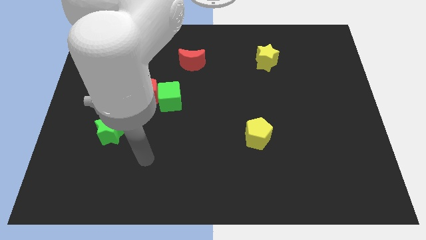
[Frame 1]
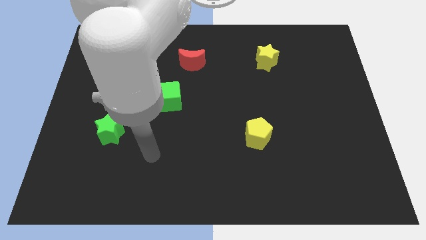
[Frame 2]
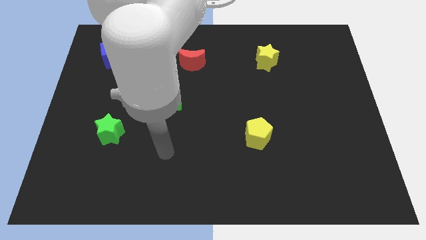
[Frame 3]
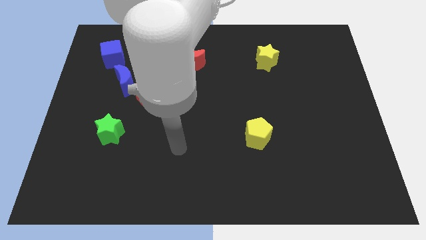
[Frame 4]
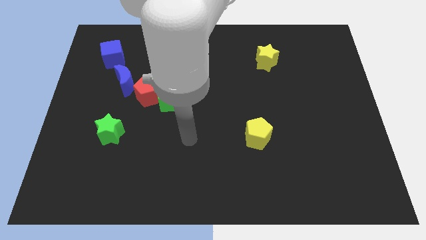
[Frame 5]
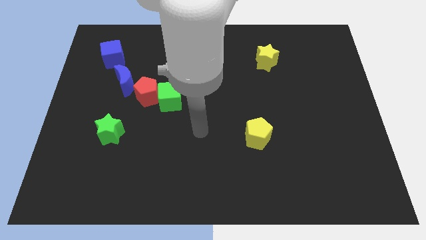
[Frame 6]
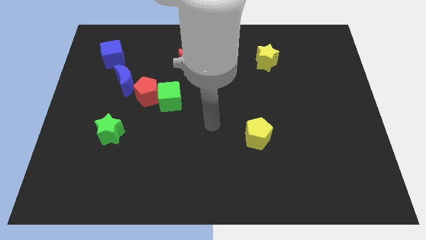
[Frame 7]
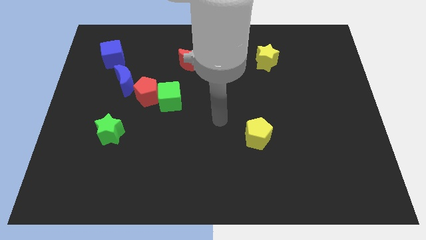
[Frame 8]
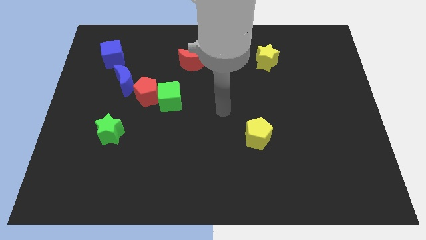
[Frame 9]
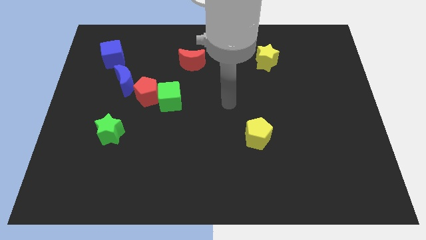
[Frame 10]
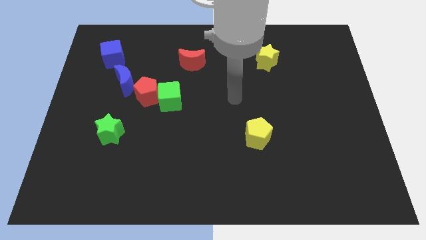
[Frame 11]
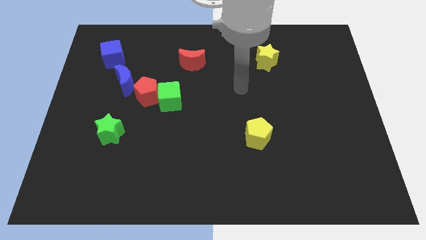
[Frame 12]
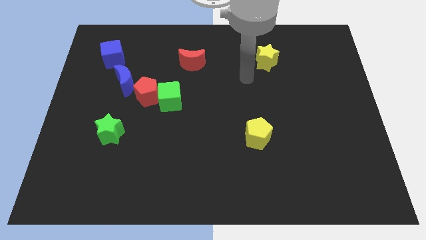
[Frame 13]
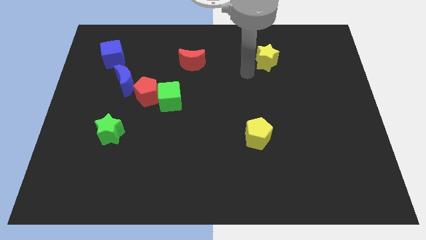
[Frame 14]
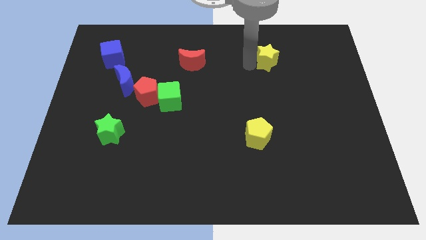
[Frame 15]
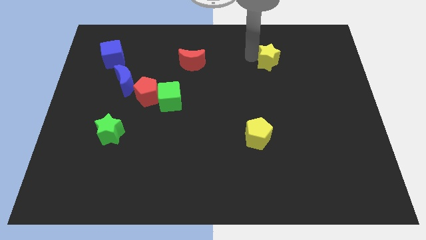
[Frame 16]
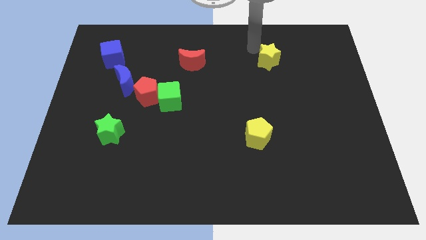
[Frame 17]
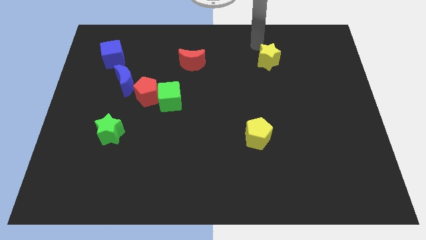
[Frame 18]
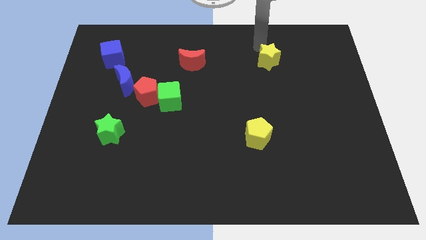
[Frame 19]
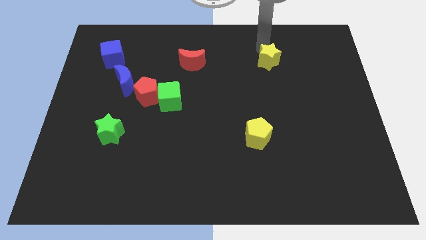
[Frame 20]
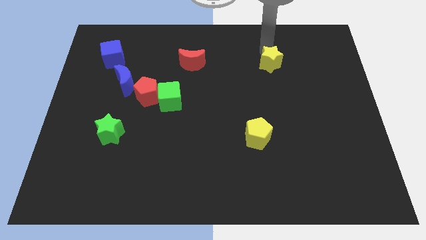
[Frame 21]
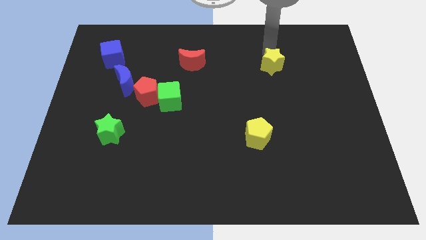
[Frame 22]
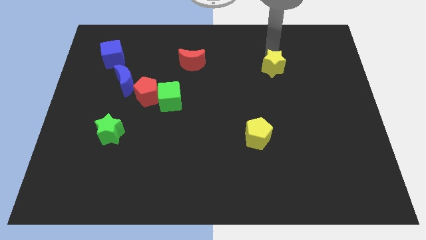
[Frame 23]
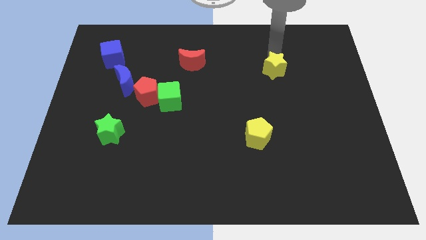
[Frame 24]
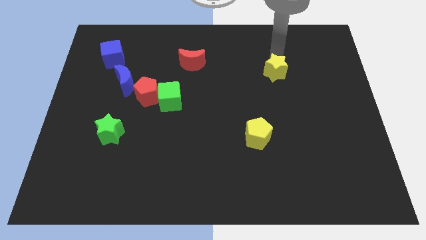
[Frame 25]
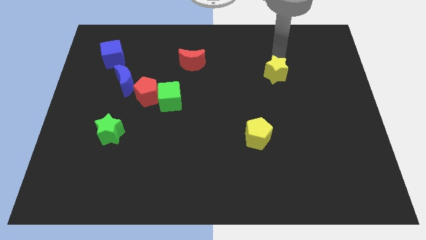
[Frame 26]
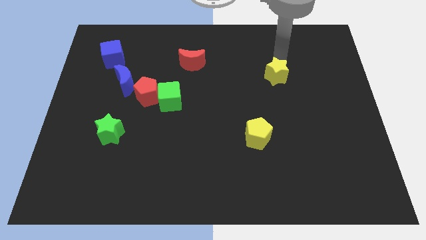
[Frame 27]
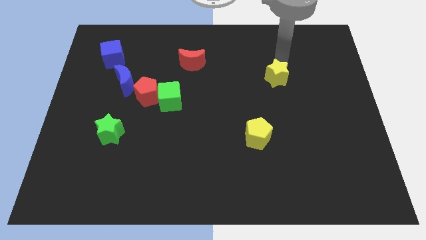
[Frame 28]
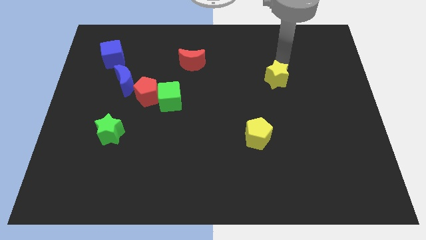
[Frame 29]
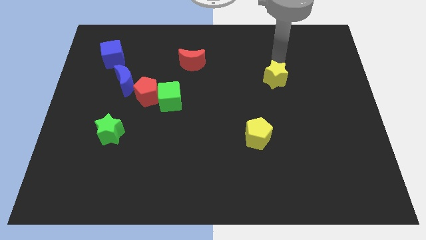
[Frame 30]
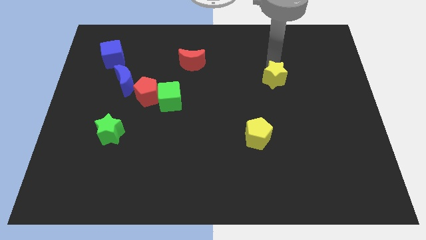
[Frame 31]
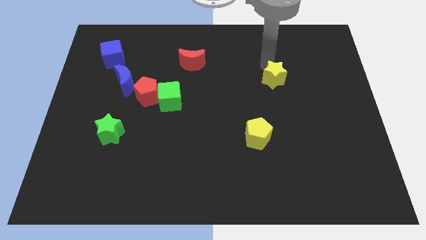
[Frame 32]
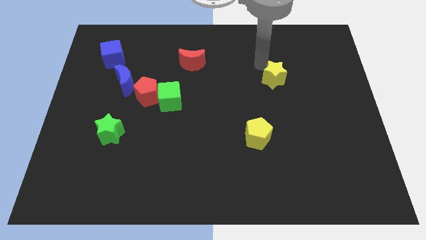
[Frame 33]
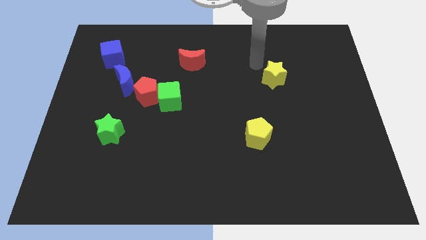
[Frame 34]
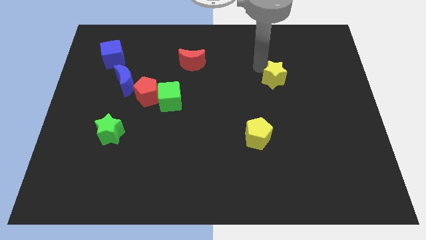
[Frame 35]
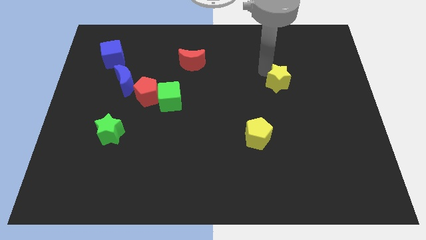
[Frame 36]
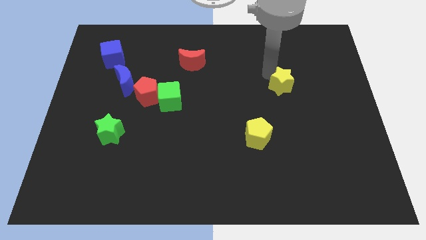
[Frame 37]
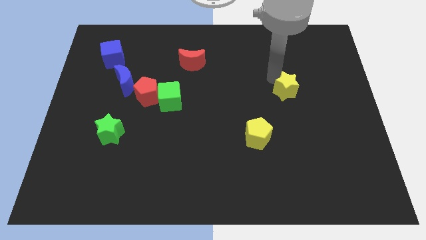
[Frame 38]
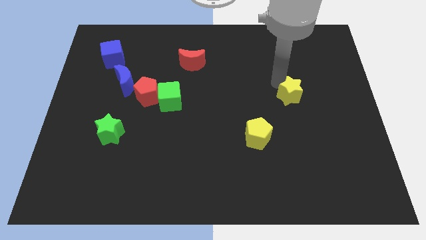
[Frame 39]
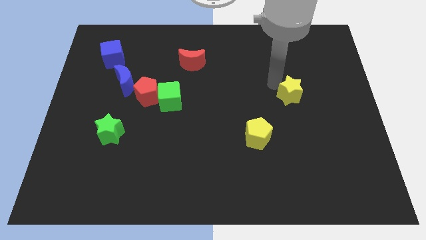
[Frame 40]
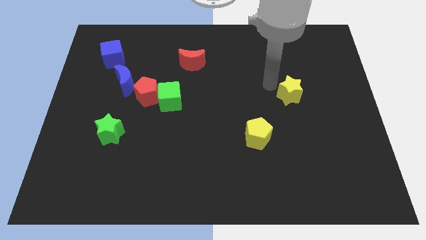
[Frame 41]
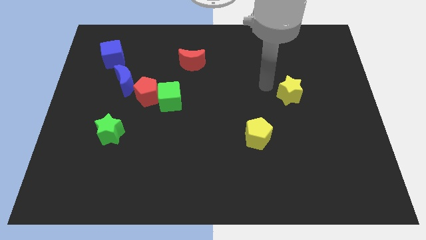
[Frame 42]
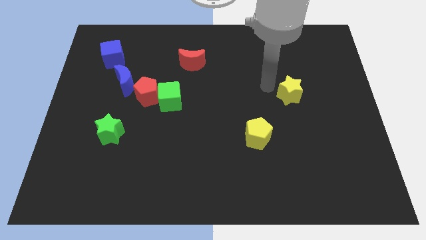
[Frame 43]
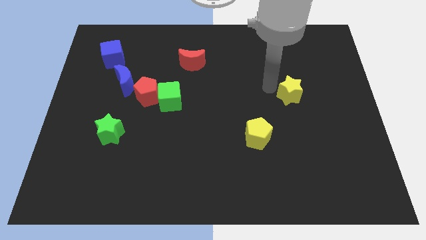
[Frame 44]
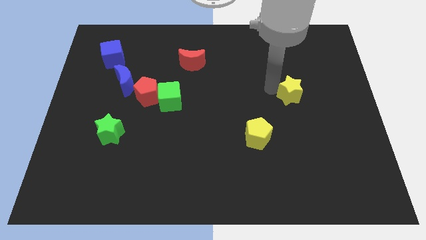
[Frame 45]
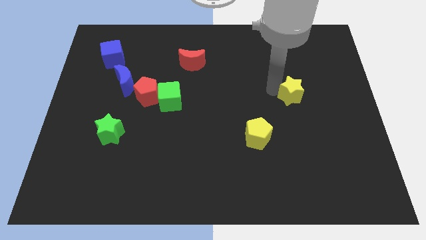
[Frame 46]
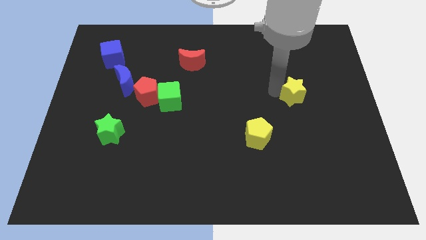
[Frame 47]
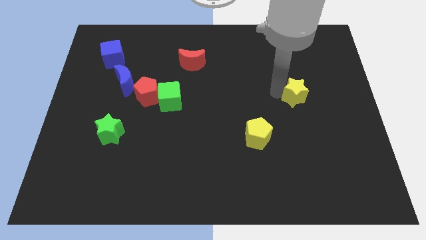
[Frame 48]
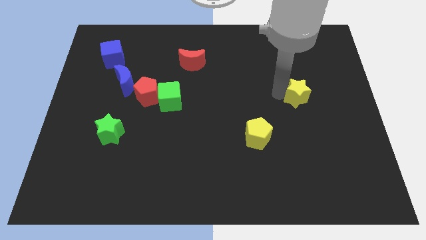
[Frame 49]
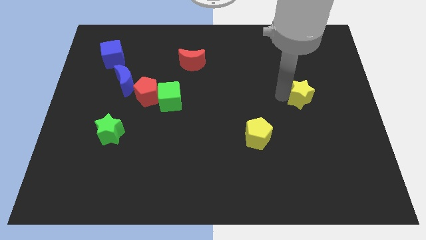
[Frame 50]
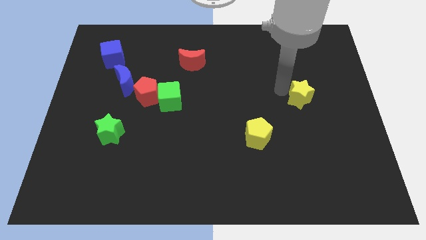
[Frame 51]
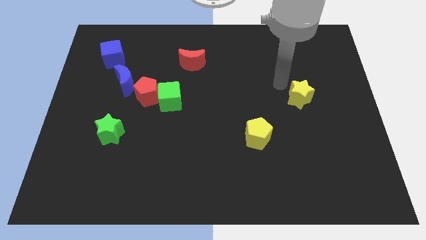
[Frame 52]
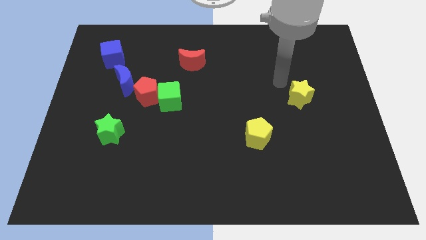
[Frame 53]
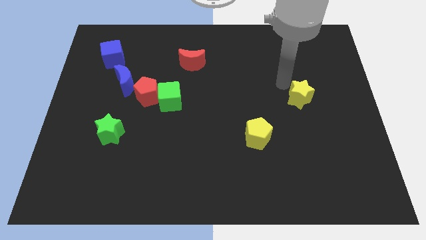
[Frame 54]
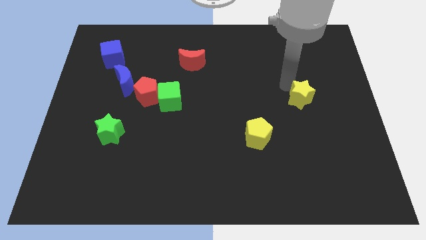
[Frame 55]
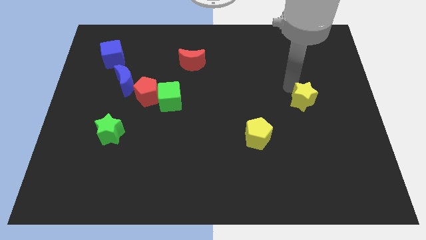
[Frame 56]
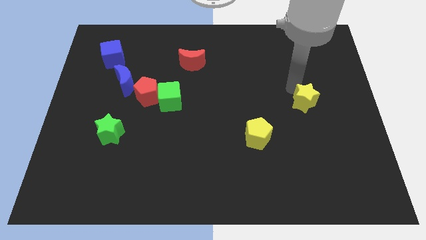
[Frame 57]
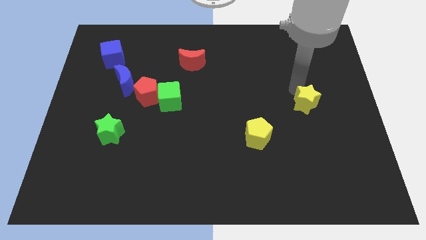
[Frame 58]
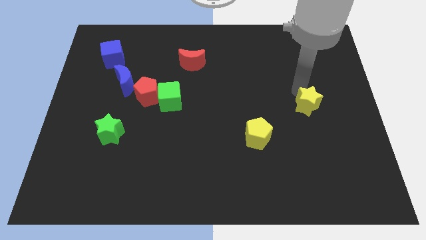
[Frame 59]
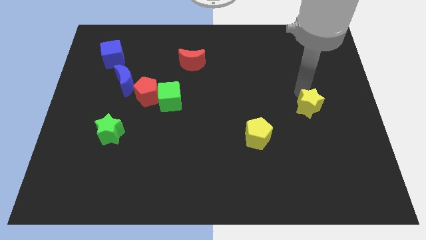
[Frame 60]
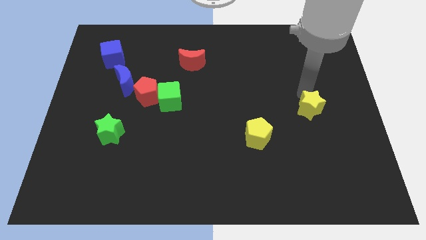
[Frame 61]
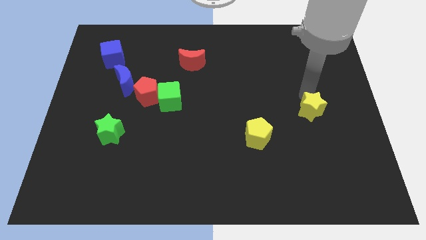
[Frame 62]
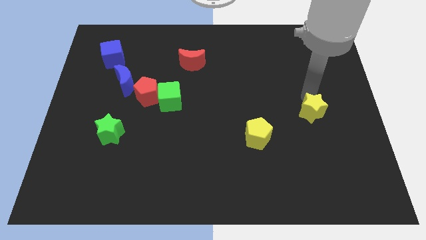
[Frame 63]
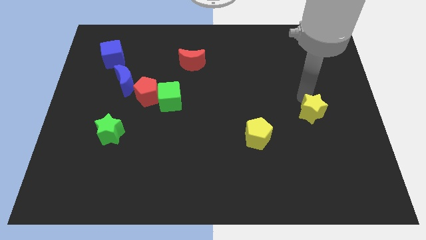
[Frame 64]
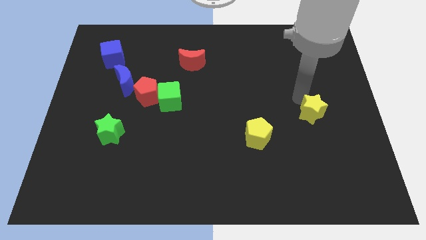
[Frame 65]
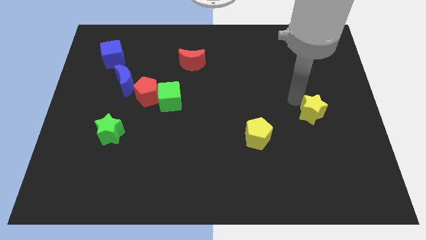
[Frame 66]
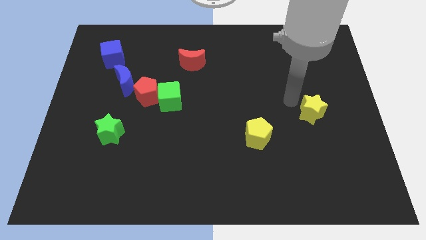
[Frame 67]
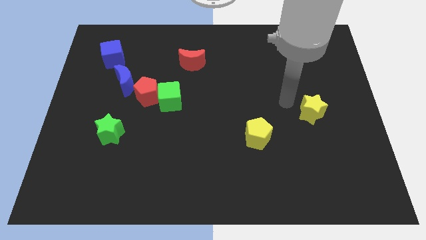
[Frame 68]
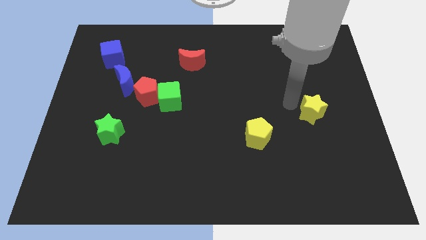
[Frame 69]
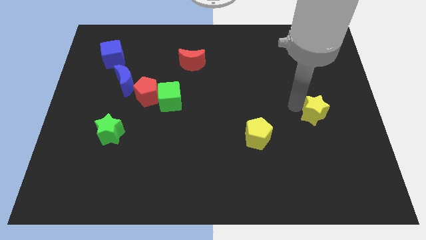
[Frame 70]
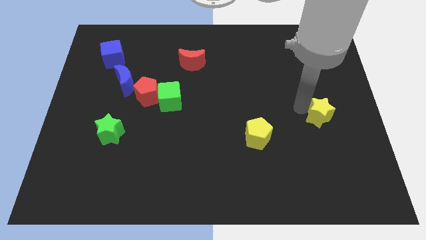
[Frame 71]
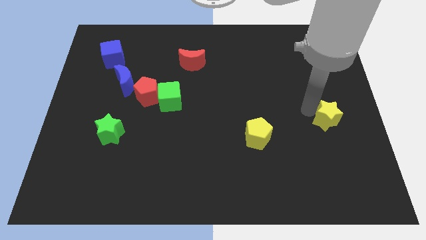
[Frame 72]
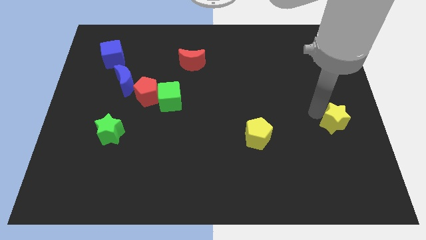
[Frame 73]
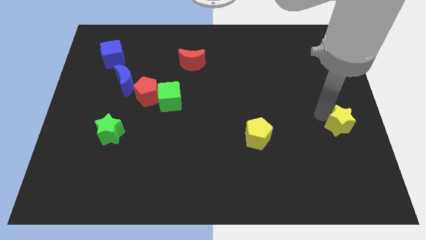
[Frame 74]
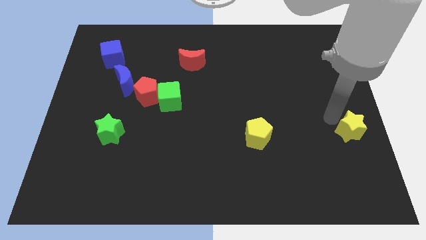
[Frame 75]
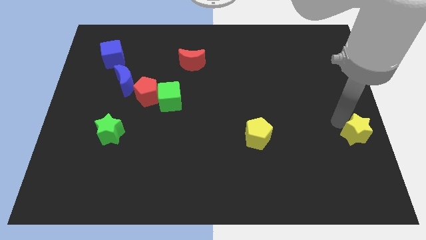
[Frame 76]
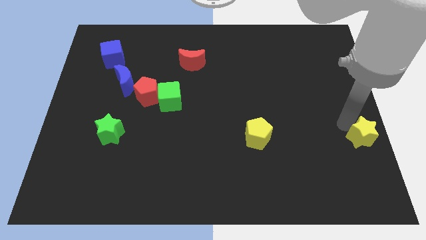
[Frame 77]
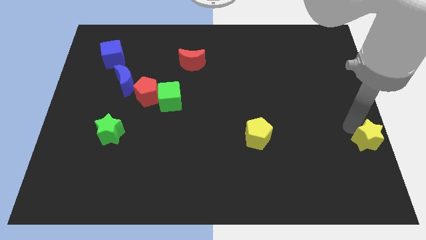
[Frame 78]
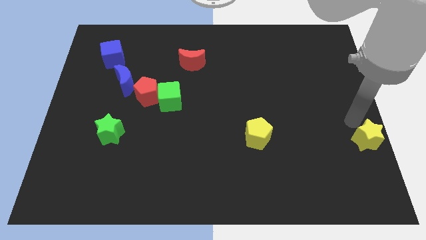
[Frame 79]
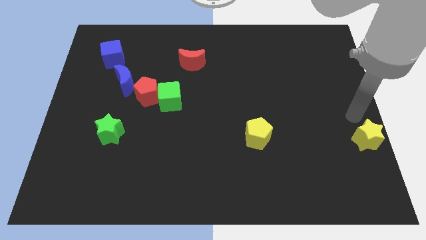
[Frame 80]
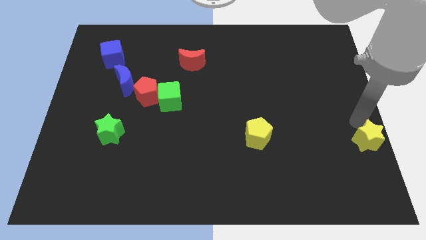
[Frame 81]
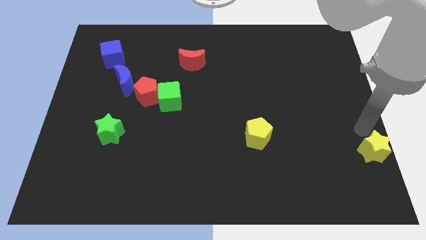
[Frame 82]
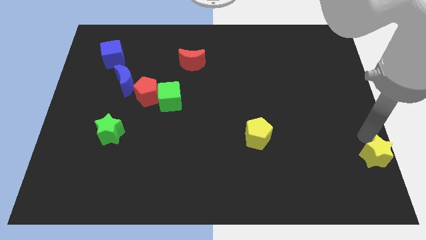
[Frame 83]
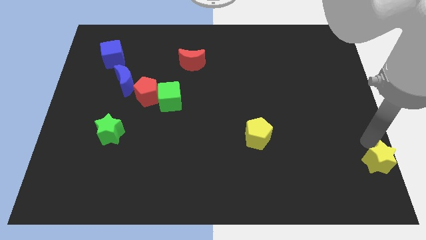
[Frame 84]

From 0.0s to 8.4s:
move the yellow star to the lower right corner
